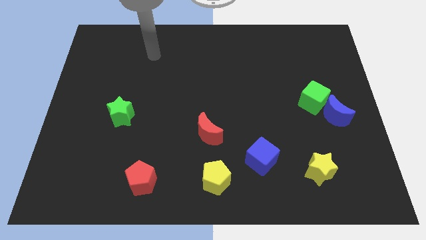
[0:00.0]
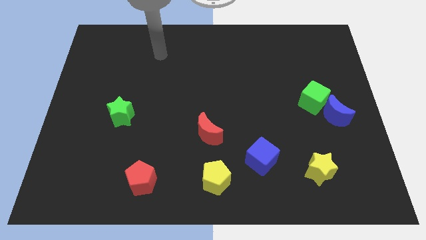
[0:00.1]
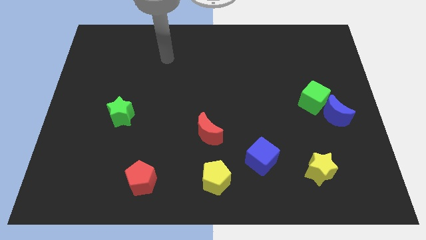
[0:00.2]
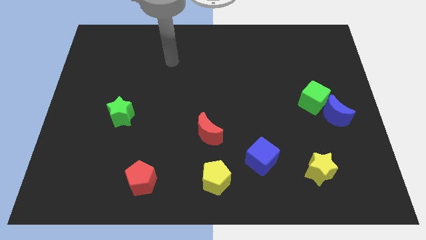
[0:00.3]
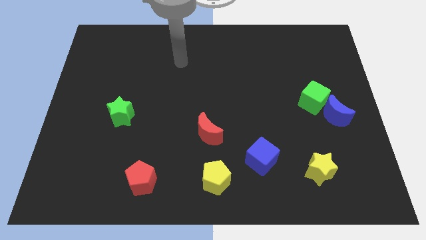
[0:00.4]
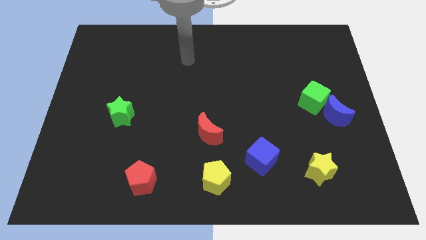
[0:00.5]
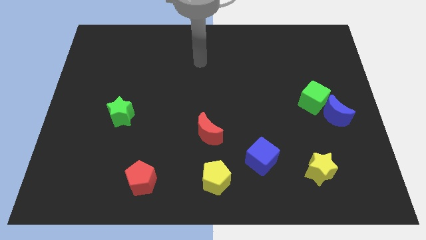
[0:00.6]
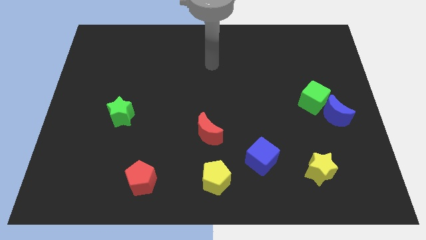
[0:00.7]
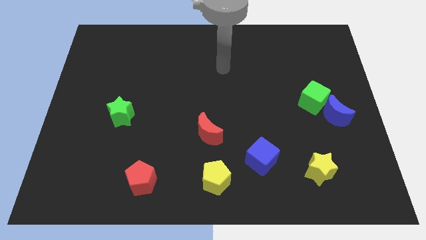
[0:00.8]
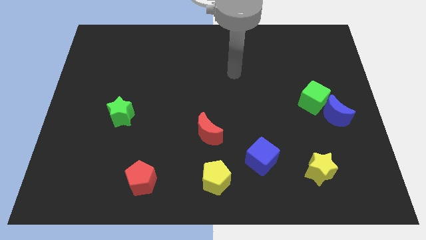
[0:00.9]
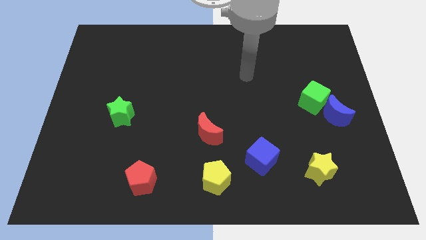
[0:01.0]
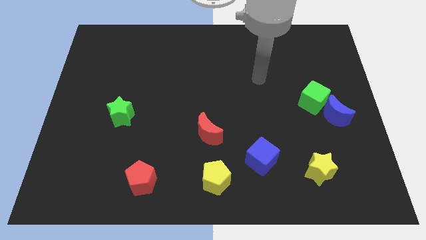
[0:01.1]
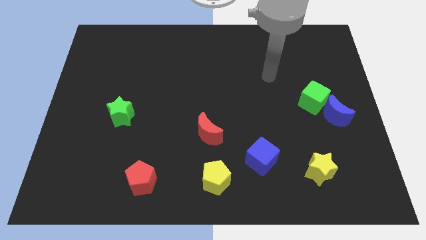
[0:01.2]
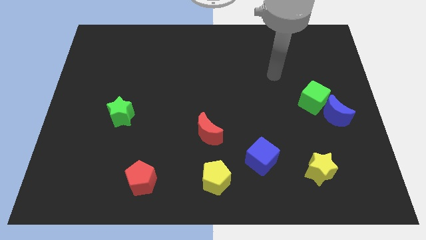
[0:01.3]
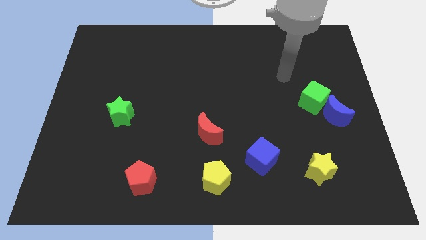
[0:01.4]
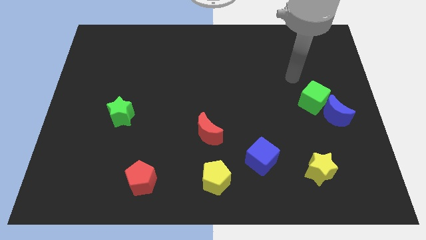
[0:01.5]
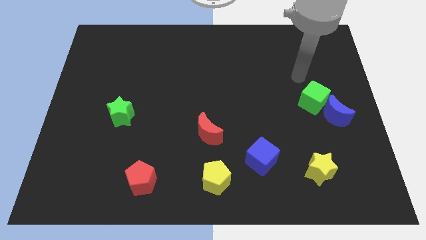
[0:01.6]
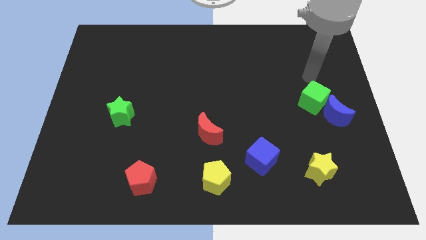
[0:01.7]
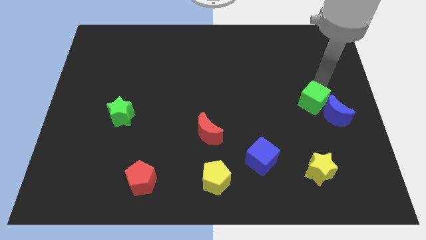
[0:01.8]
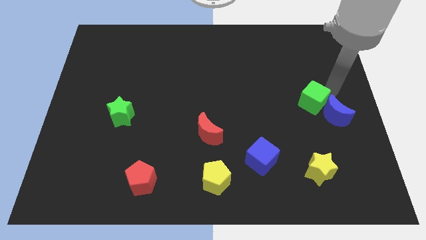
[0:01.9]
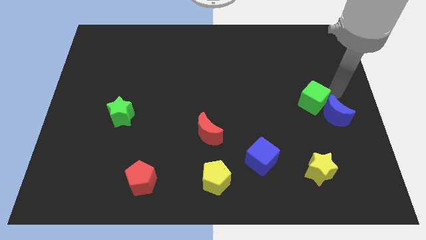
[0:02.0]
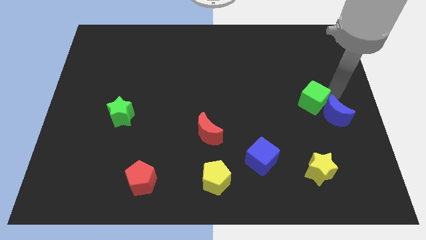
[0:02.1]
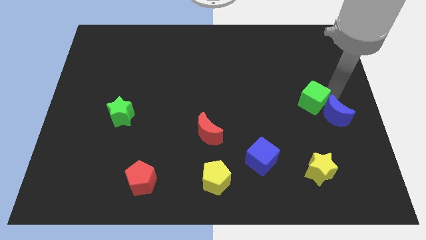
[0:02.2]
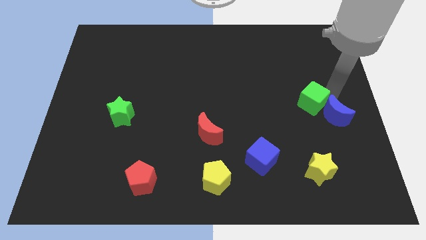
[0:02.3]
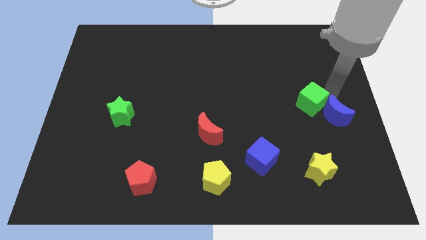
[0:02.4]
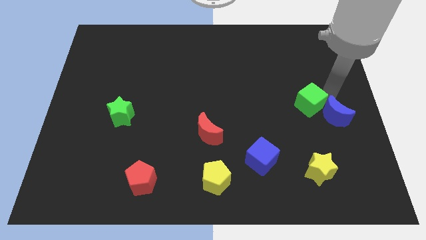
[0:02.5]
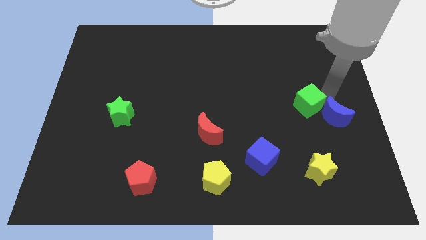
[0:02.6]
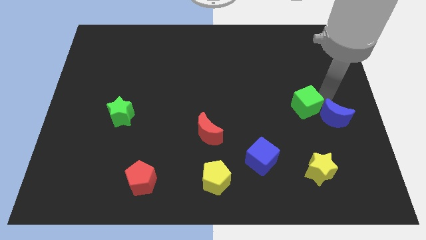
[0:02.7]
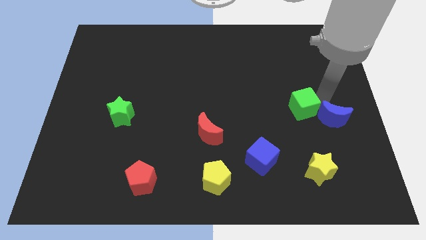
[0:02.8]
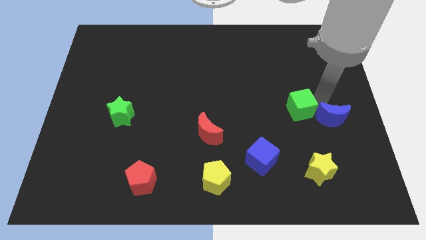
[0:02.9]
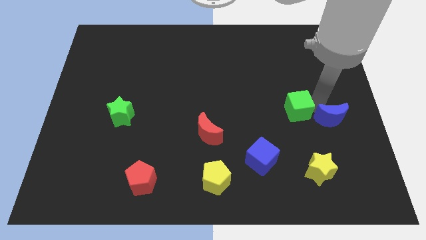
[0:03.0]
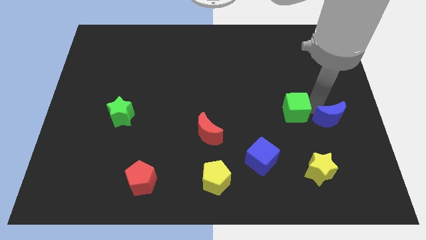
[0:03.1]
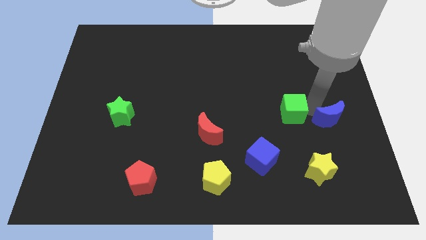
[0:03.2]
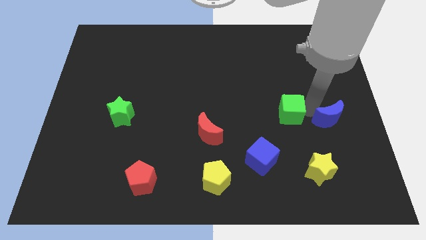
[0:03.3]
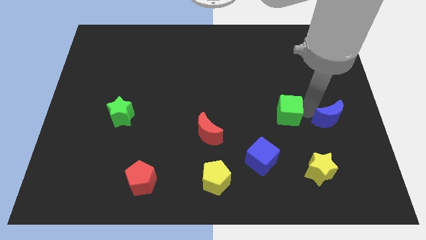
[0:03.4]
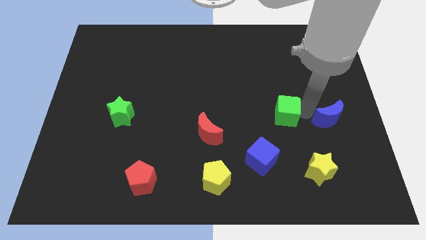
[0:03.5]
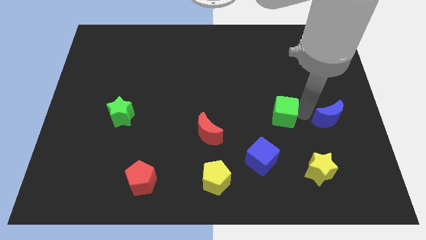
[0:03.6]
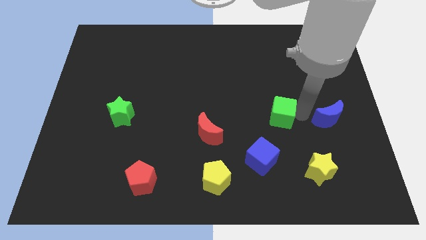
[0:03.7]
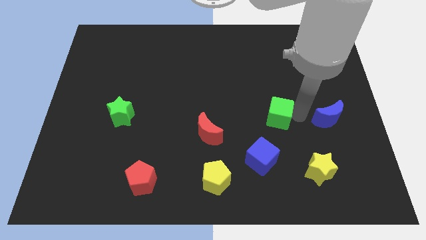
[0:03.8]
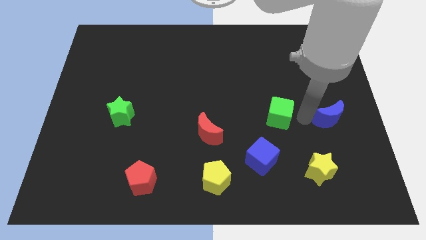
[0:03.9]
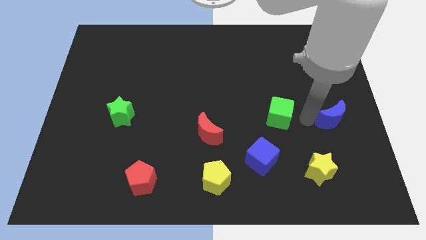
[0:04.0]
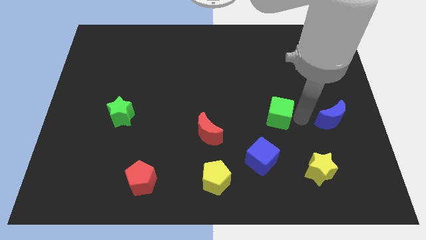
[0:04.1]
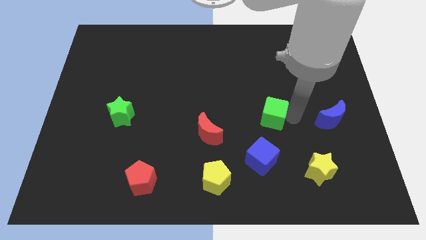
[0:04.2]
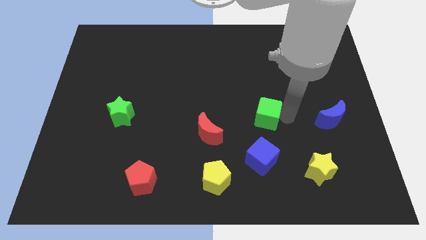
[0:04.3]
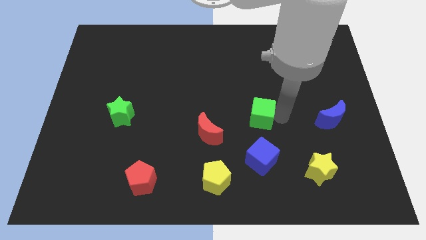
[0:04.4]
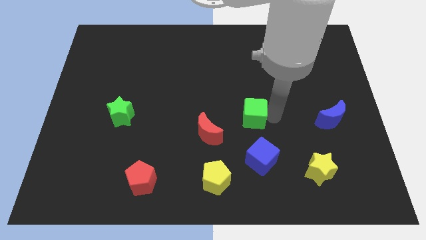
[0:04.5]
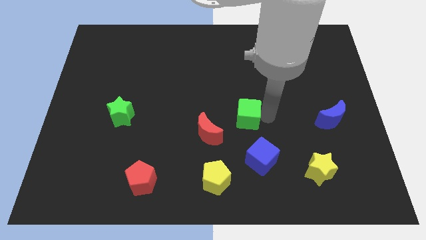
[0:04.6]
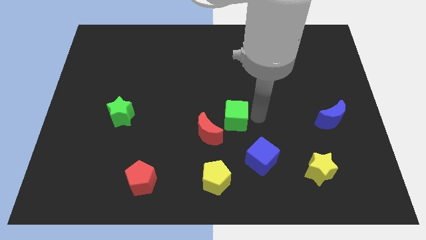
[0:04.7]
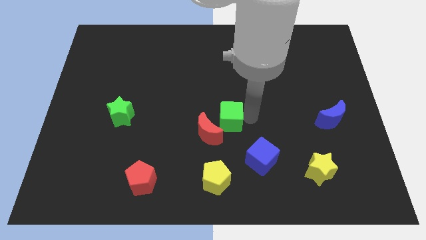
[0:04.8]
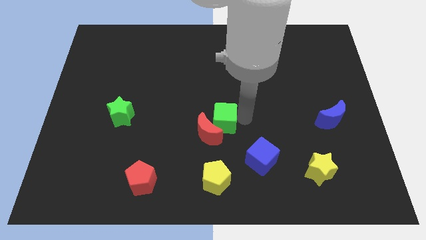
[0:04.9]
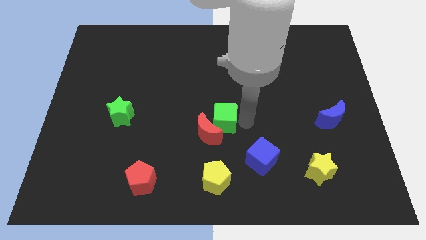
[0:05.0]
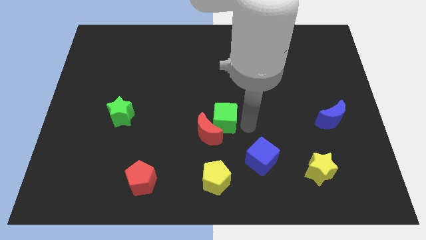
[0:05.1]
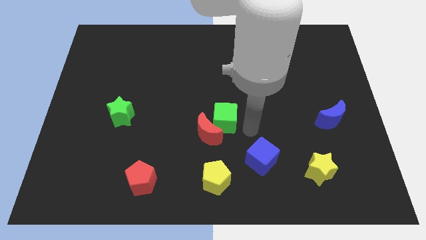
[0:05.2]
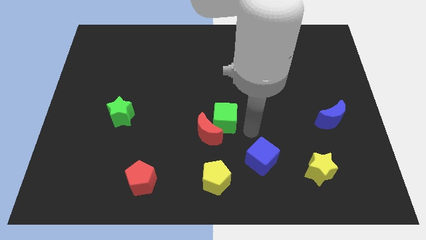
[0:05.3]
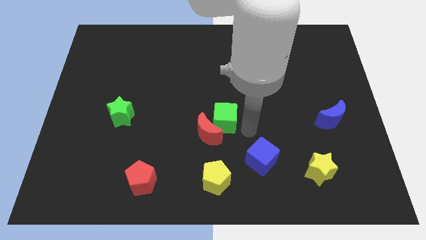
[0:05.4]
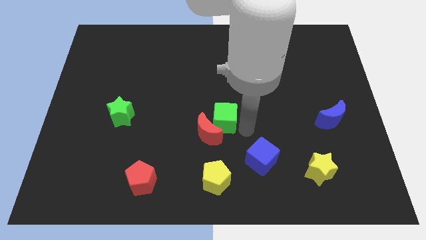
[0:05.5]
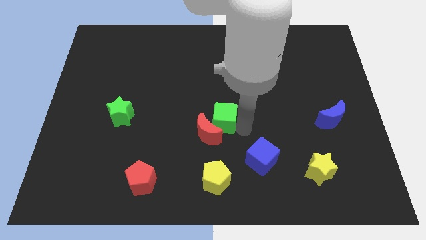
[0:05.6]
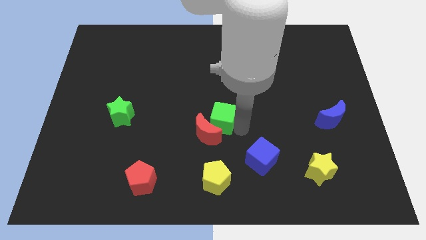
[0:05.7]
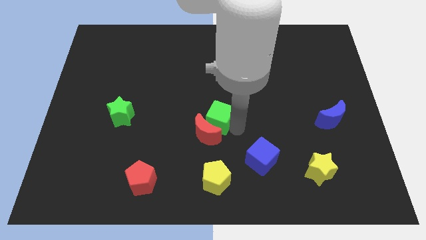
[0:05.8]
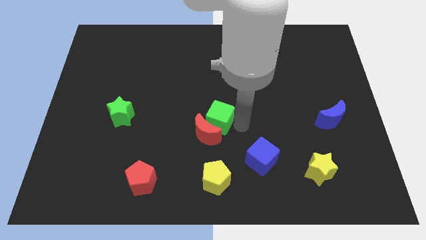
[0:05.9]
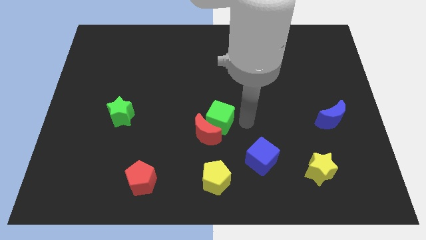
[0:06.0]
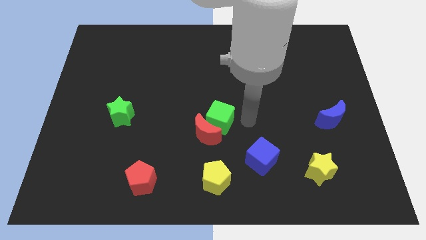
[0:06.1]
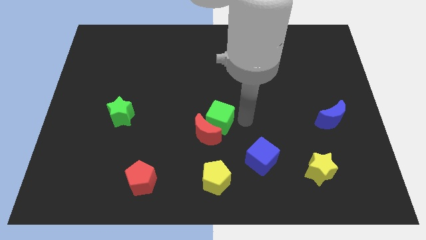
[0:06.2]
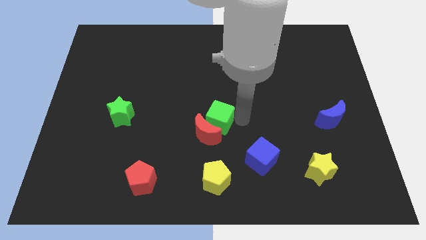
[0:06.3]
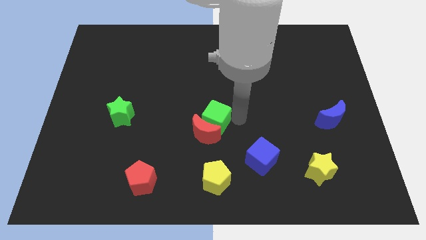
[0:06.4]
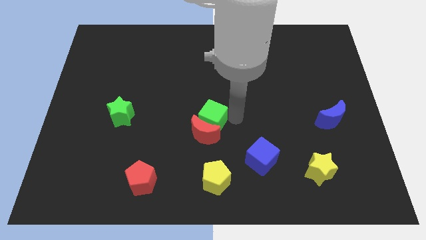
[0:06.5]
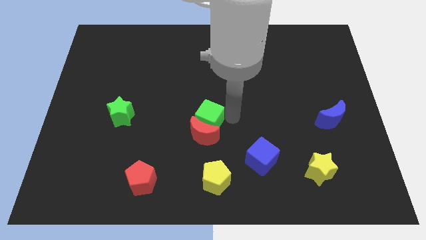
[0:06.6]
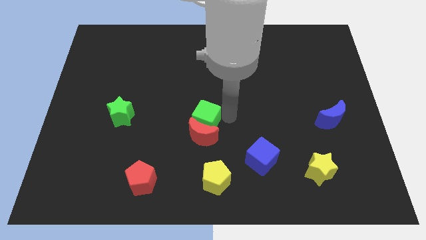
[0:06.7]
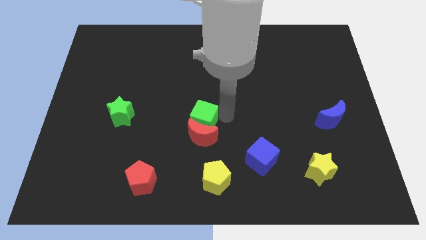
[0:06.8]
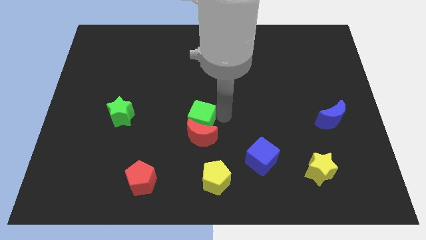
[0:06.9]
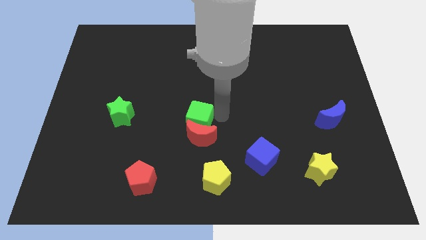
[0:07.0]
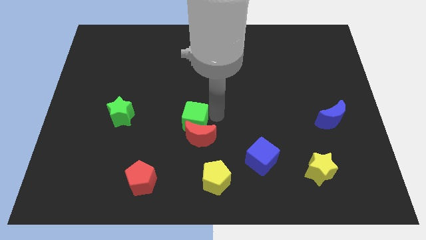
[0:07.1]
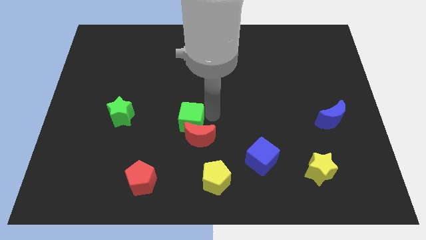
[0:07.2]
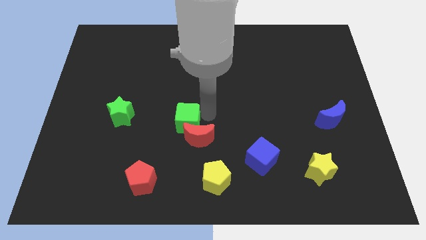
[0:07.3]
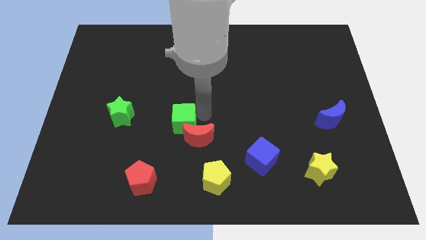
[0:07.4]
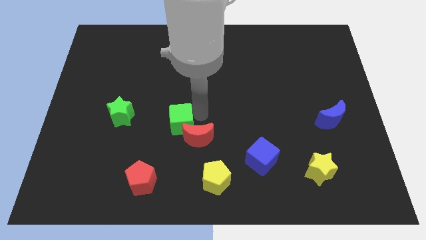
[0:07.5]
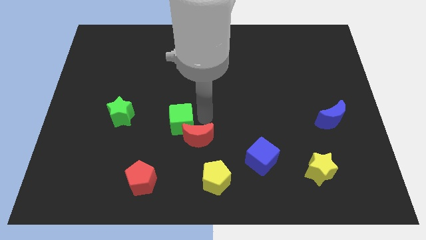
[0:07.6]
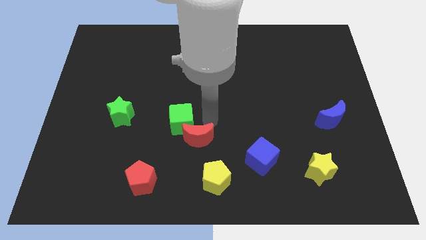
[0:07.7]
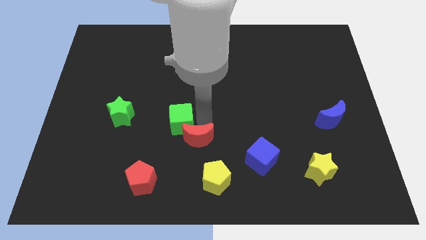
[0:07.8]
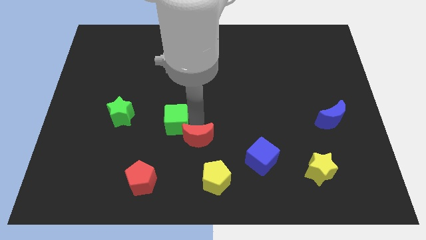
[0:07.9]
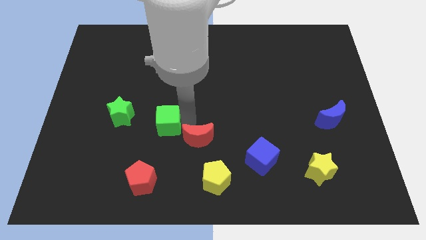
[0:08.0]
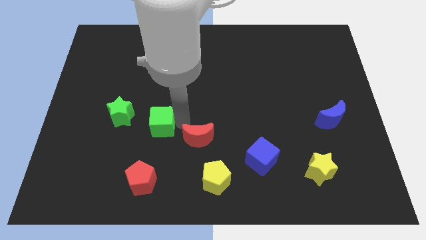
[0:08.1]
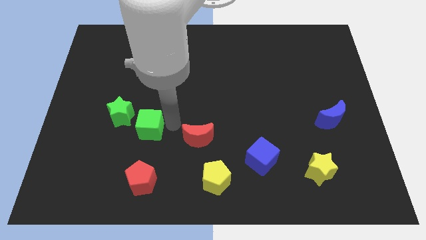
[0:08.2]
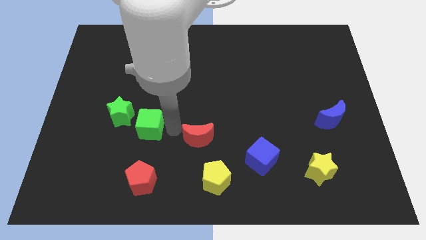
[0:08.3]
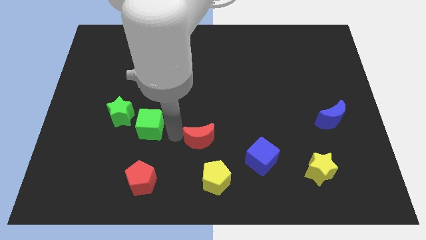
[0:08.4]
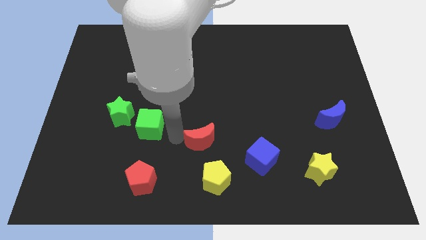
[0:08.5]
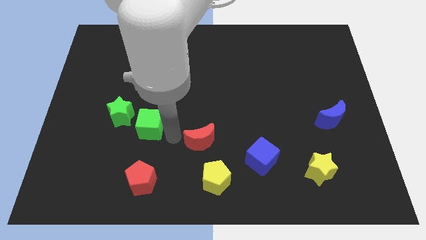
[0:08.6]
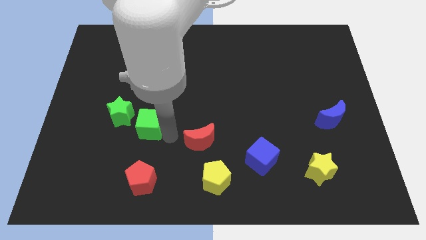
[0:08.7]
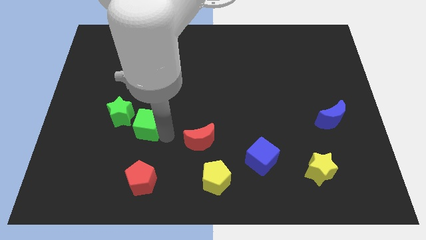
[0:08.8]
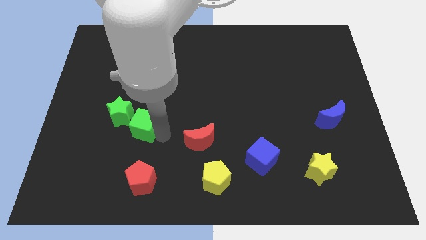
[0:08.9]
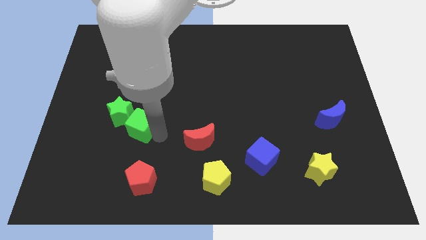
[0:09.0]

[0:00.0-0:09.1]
move the green cube towards the green star
